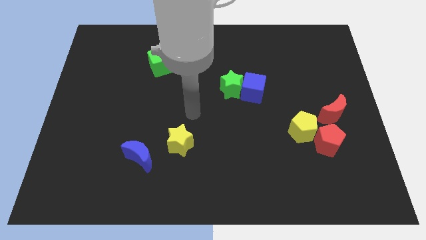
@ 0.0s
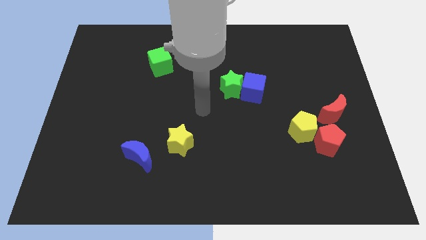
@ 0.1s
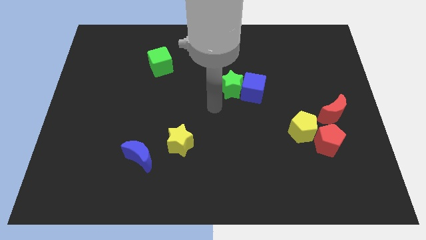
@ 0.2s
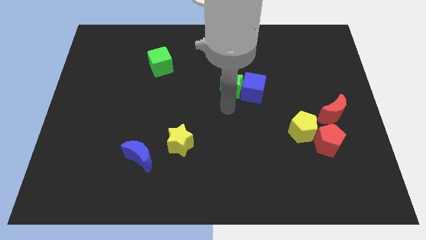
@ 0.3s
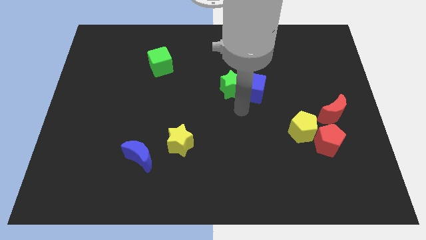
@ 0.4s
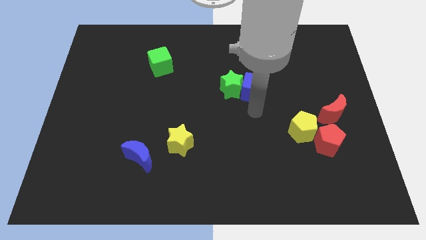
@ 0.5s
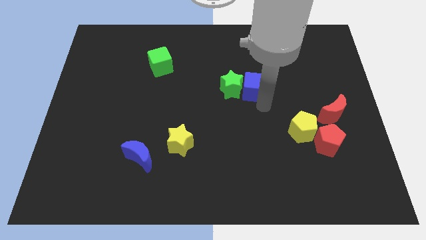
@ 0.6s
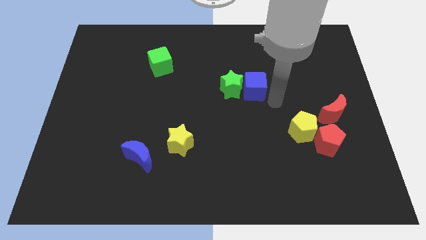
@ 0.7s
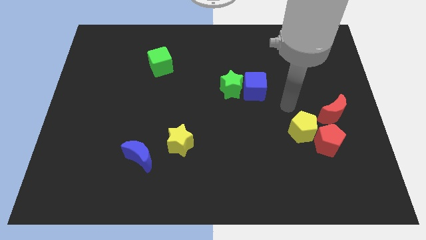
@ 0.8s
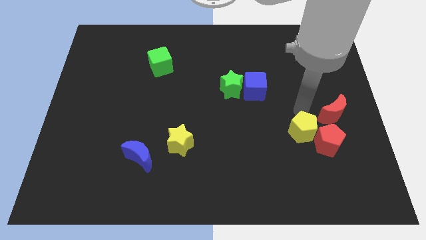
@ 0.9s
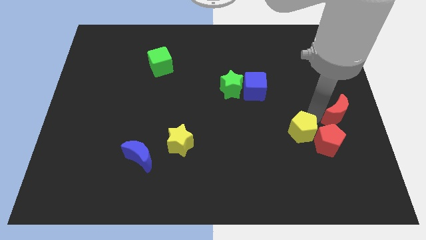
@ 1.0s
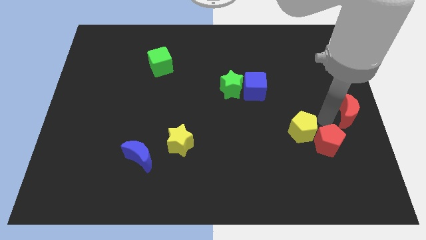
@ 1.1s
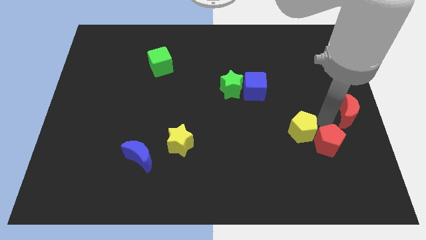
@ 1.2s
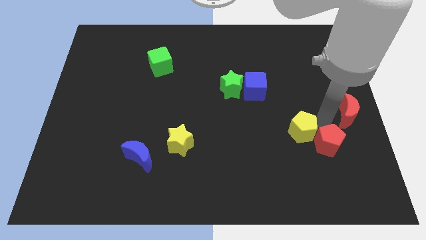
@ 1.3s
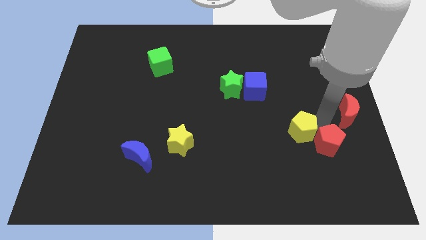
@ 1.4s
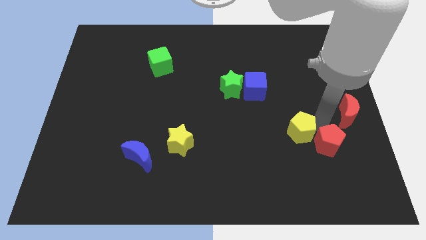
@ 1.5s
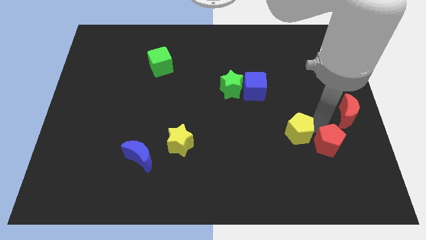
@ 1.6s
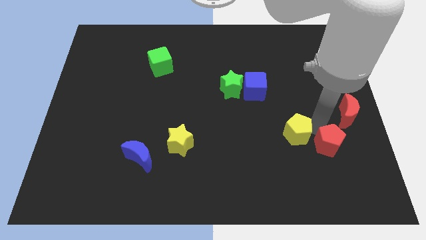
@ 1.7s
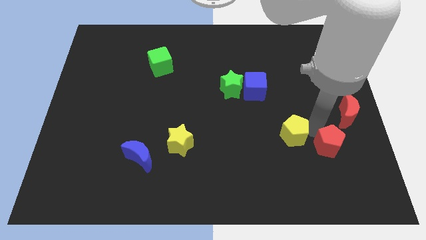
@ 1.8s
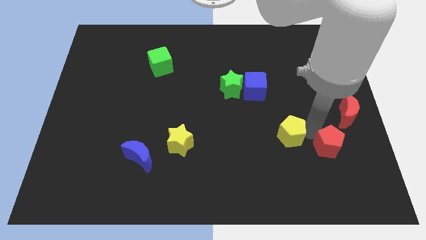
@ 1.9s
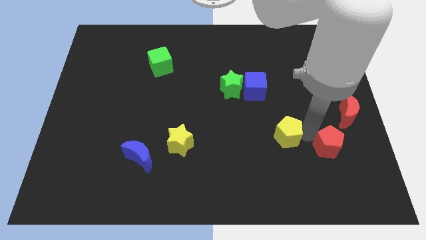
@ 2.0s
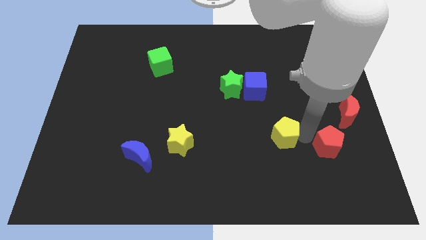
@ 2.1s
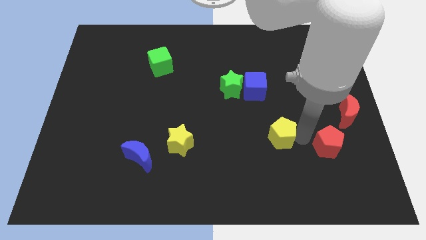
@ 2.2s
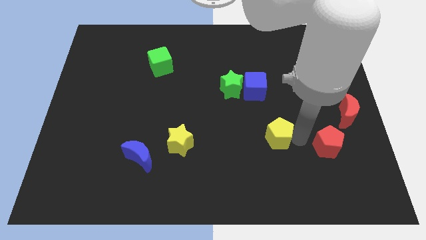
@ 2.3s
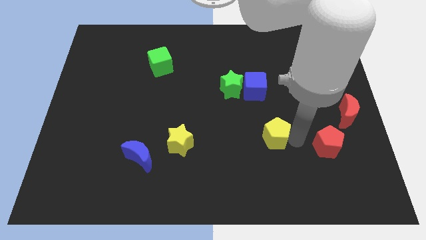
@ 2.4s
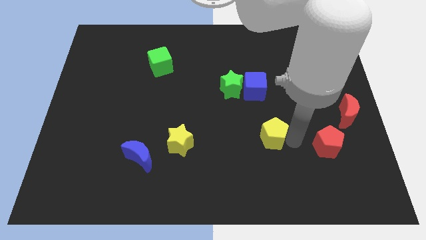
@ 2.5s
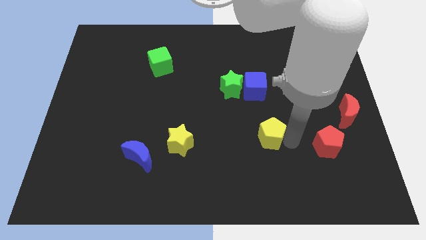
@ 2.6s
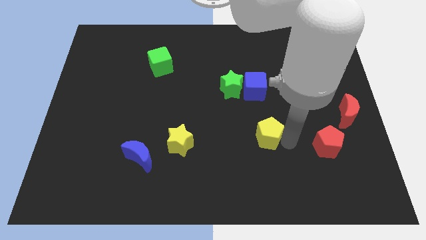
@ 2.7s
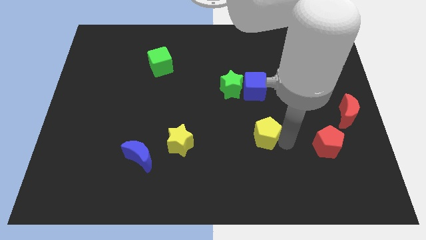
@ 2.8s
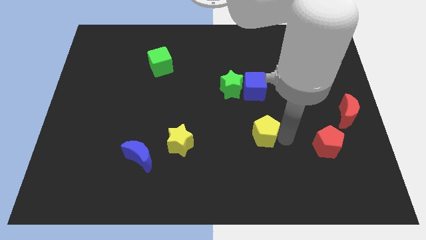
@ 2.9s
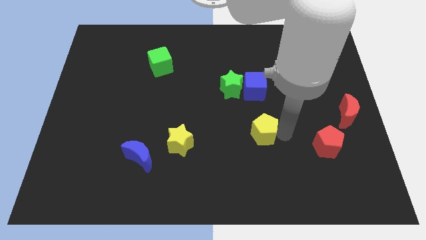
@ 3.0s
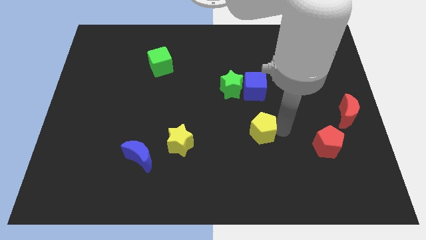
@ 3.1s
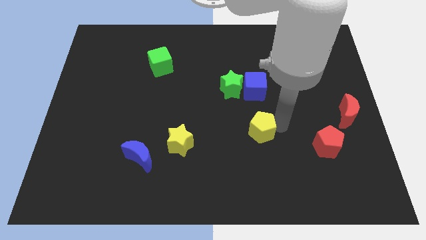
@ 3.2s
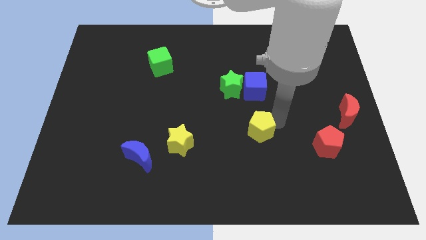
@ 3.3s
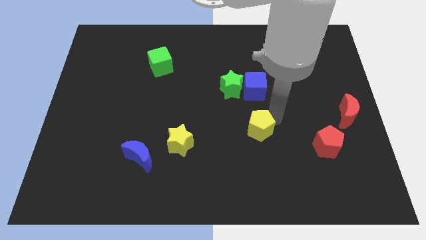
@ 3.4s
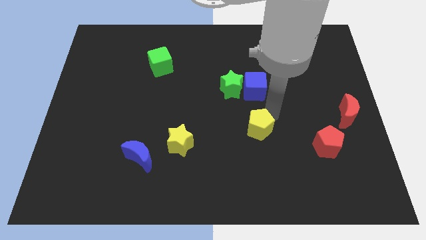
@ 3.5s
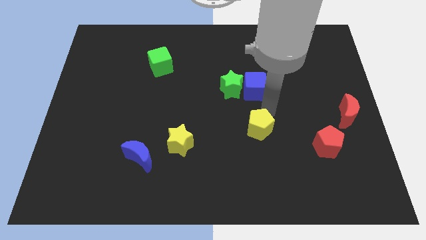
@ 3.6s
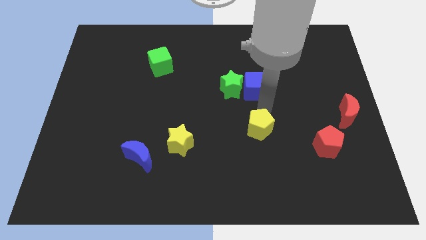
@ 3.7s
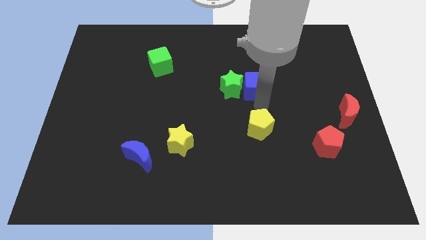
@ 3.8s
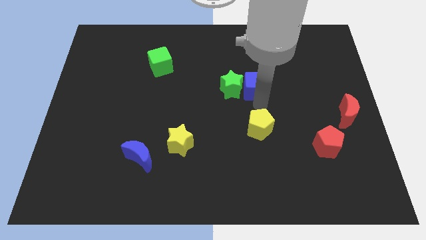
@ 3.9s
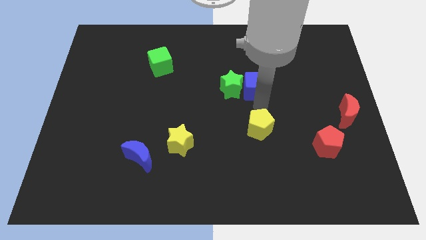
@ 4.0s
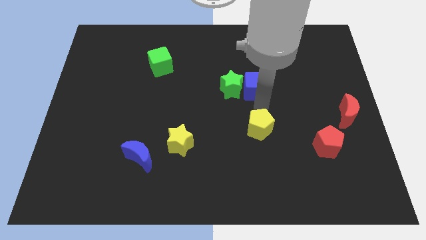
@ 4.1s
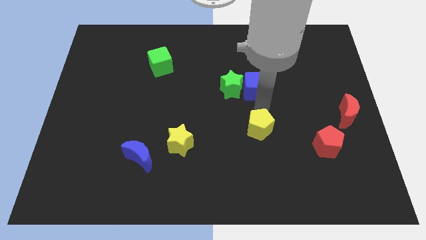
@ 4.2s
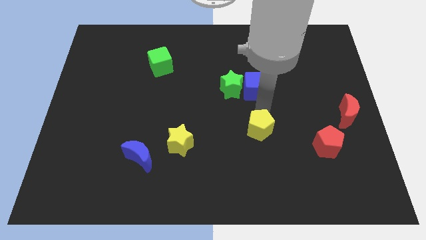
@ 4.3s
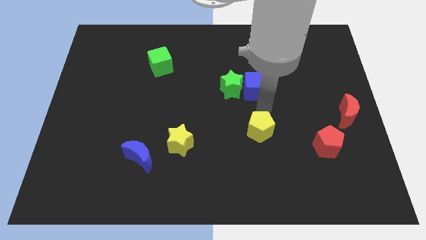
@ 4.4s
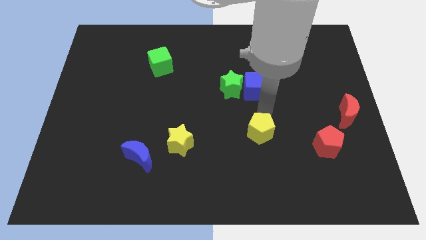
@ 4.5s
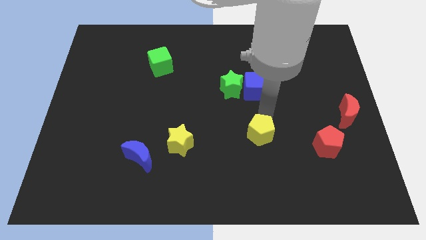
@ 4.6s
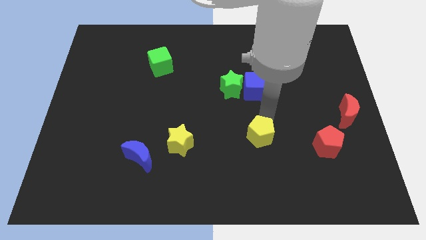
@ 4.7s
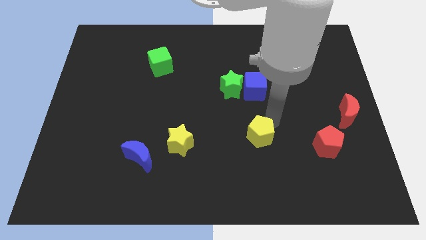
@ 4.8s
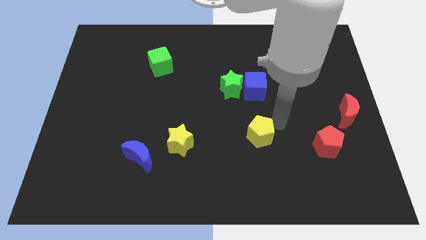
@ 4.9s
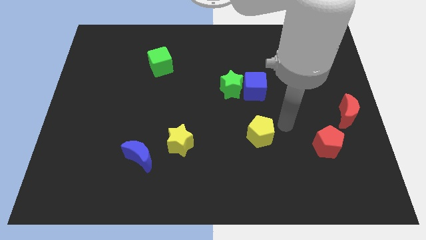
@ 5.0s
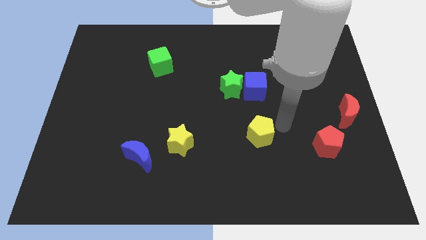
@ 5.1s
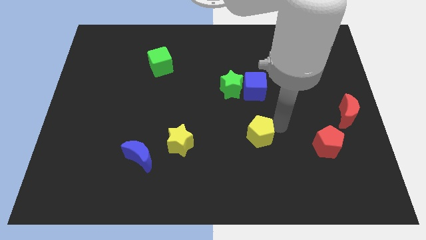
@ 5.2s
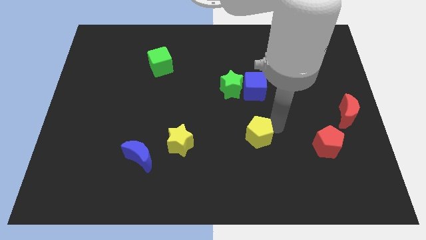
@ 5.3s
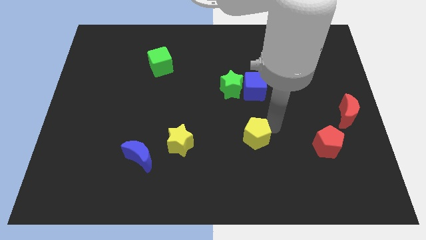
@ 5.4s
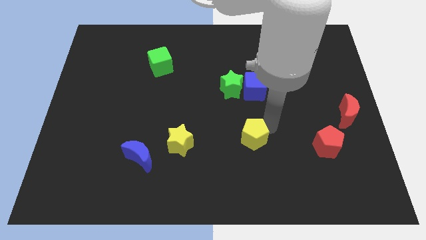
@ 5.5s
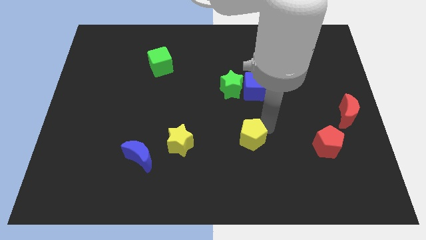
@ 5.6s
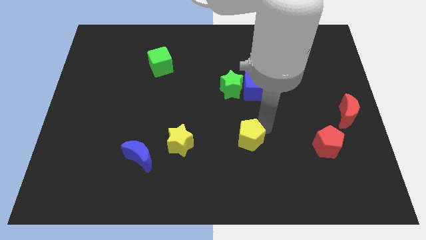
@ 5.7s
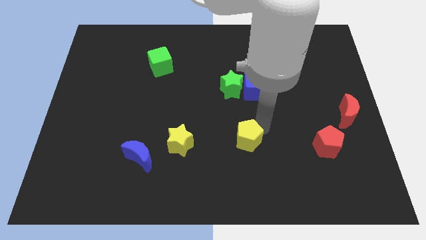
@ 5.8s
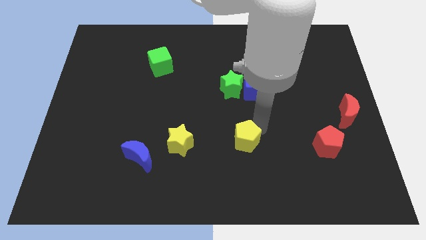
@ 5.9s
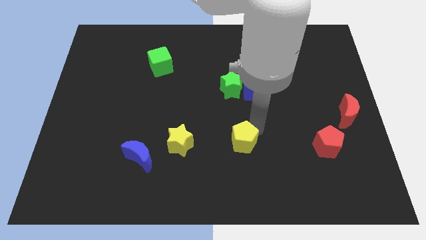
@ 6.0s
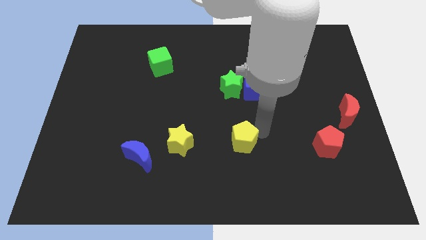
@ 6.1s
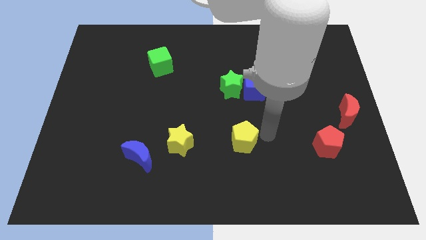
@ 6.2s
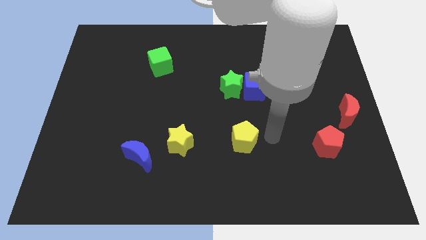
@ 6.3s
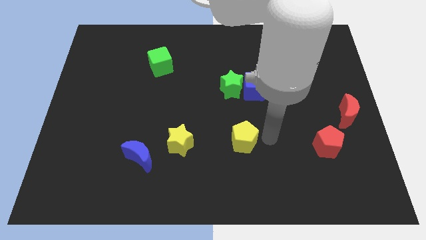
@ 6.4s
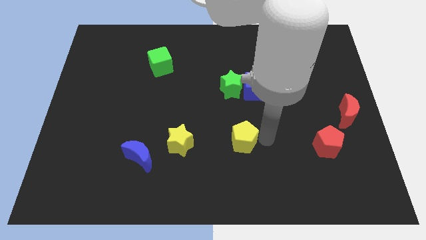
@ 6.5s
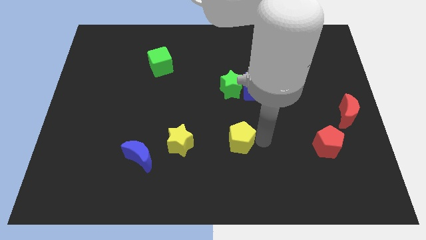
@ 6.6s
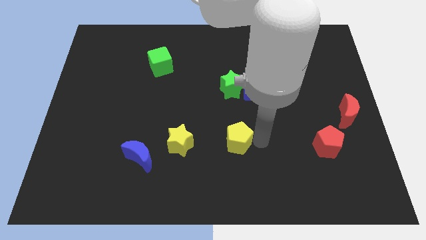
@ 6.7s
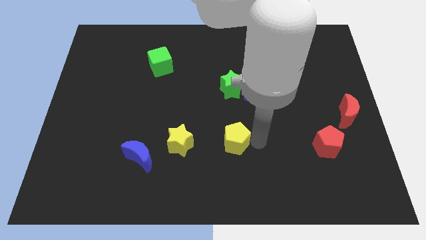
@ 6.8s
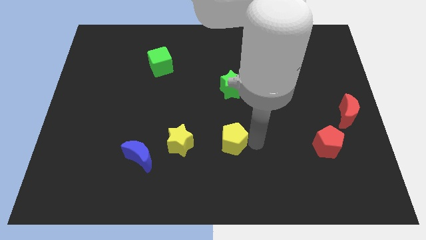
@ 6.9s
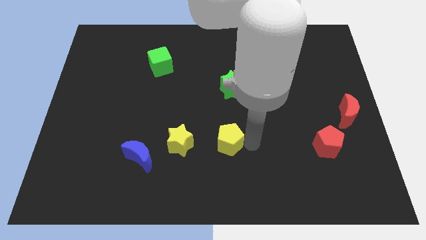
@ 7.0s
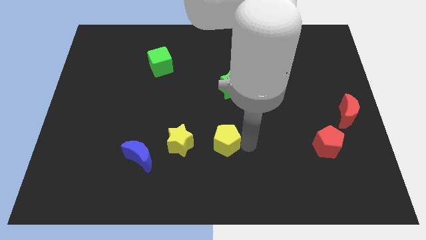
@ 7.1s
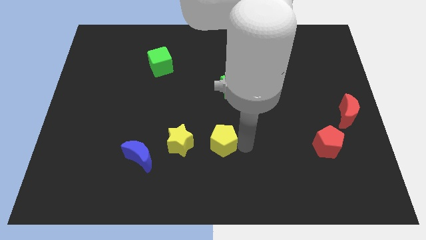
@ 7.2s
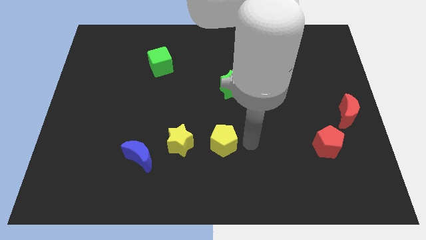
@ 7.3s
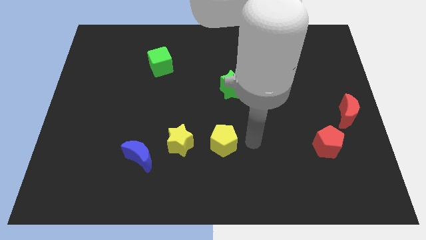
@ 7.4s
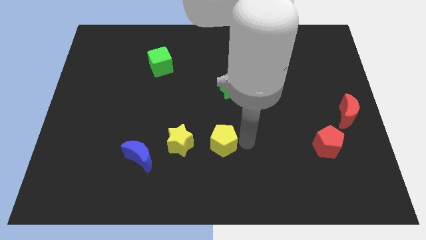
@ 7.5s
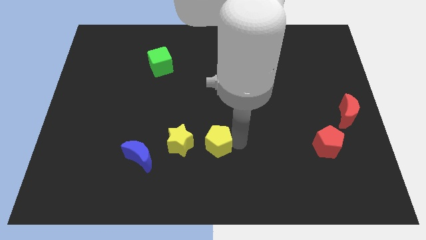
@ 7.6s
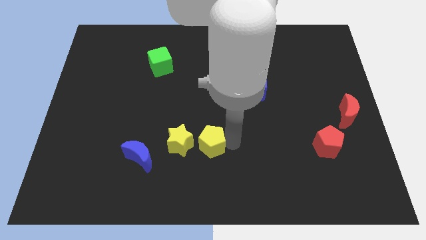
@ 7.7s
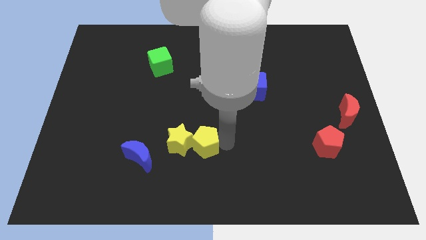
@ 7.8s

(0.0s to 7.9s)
move the yellow pentagon close to the yellow star
